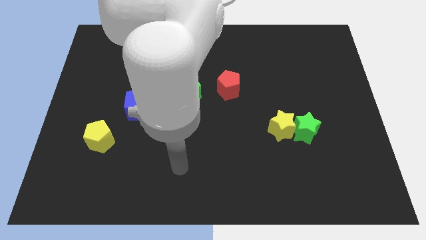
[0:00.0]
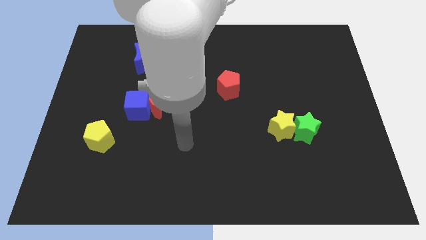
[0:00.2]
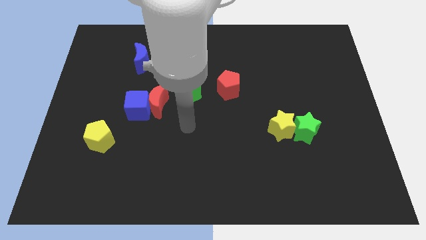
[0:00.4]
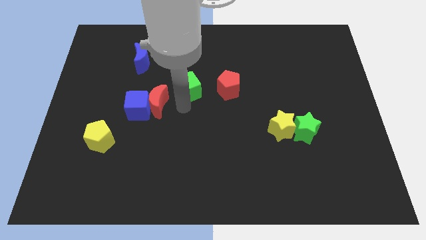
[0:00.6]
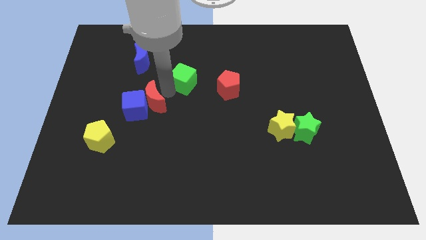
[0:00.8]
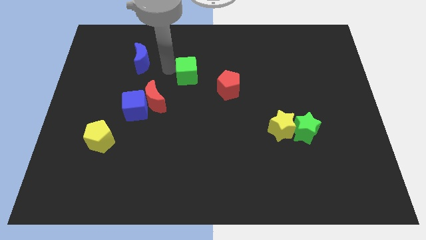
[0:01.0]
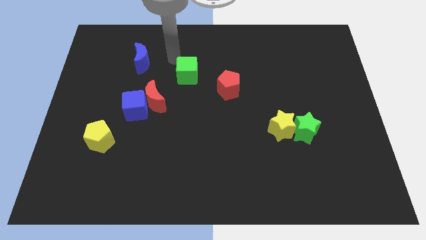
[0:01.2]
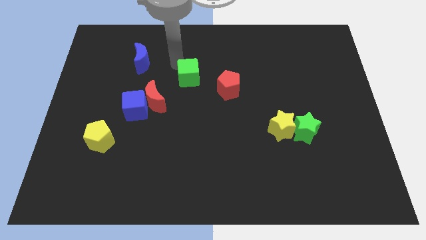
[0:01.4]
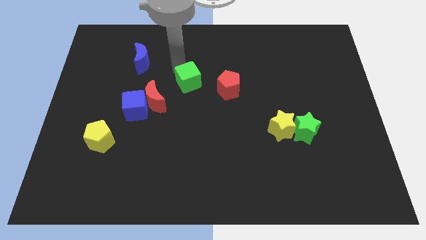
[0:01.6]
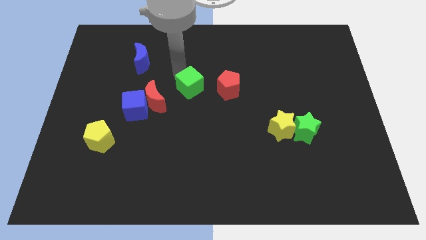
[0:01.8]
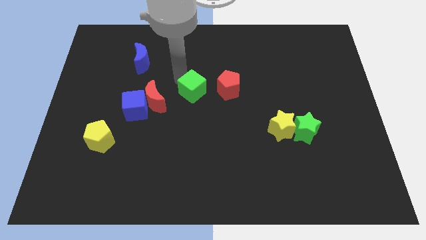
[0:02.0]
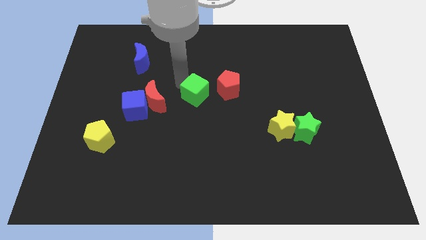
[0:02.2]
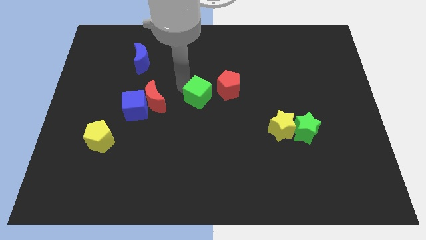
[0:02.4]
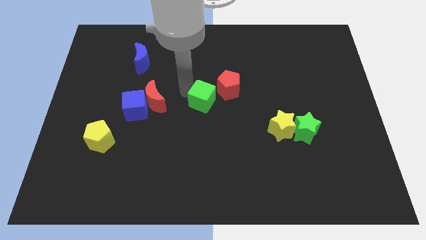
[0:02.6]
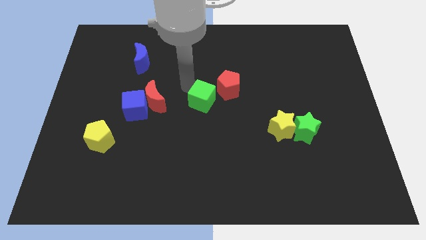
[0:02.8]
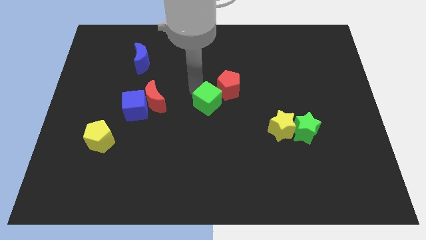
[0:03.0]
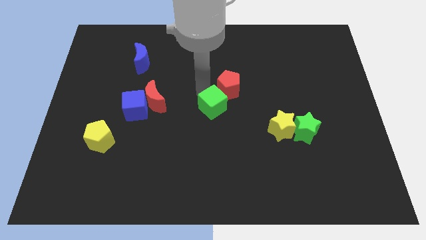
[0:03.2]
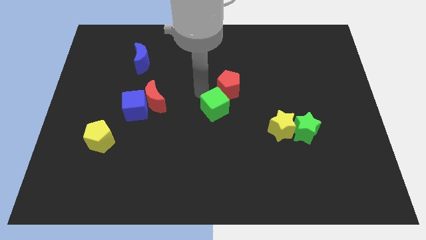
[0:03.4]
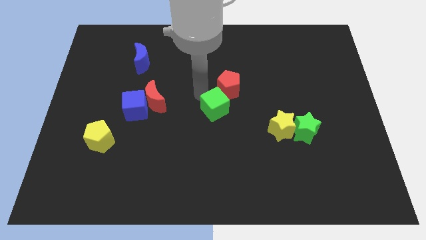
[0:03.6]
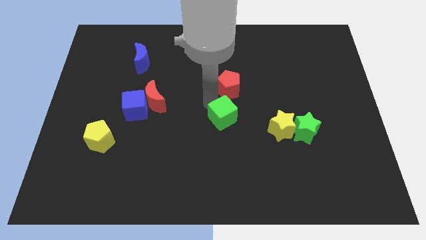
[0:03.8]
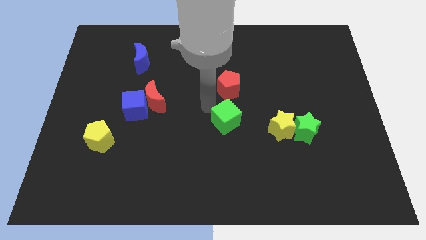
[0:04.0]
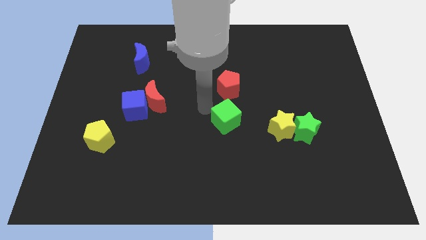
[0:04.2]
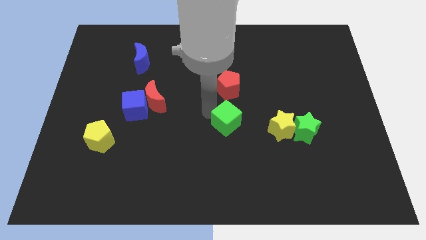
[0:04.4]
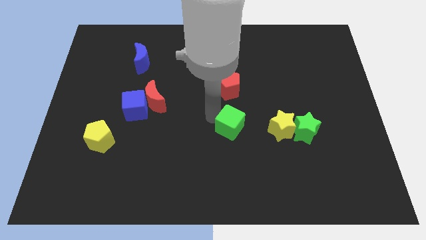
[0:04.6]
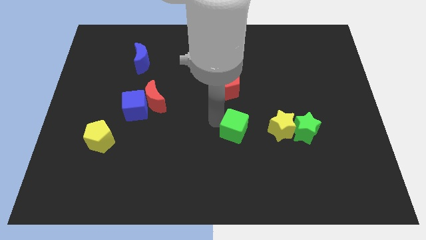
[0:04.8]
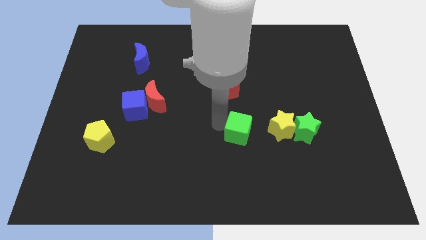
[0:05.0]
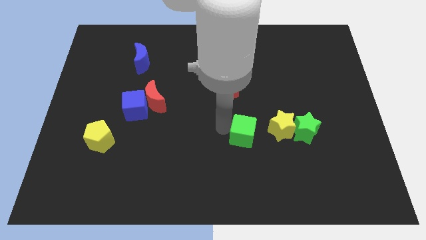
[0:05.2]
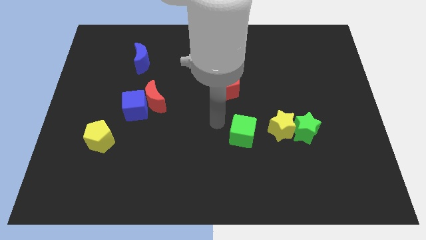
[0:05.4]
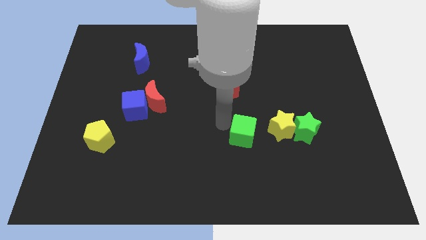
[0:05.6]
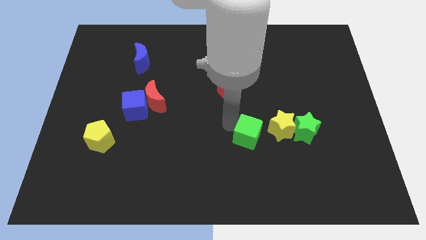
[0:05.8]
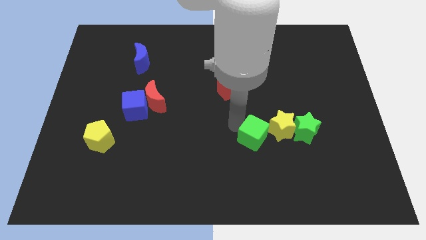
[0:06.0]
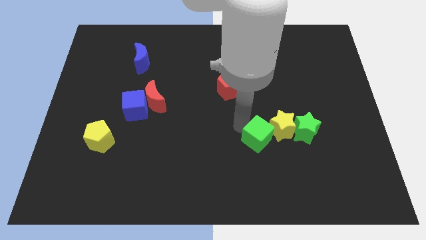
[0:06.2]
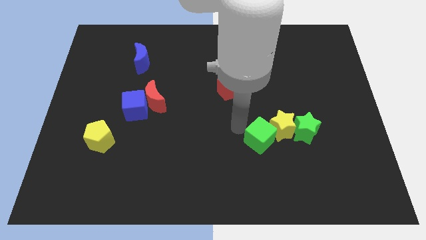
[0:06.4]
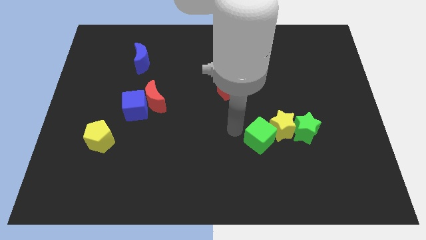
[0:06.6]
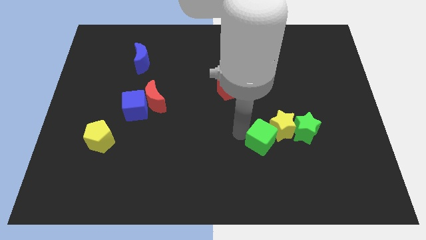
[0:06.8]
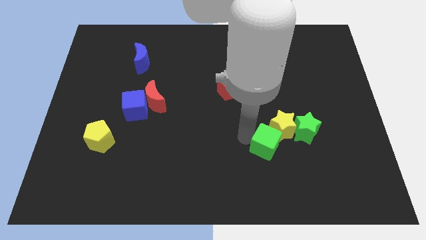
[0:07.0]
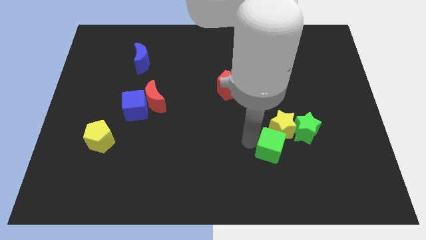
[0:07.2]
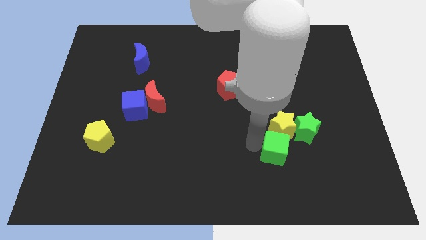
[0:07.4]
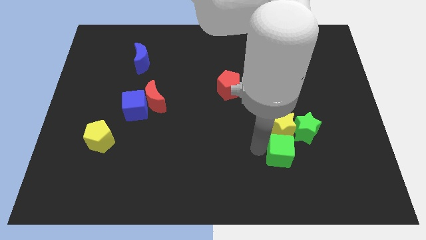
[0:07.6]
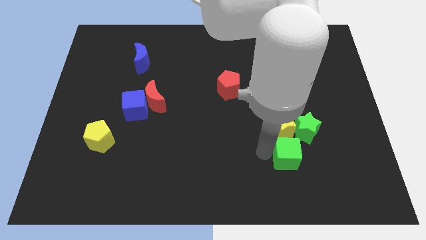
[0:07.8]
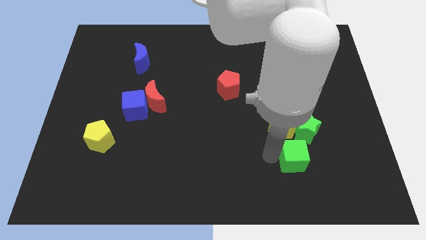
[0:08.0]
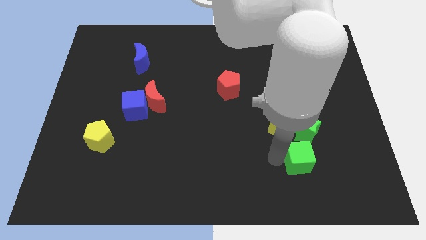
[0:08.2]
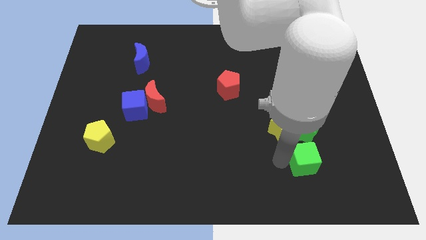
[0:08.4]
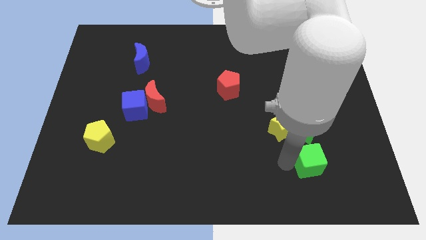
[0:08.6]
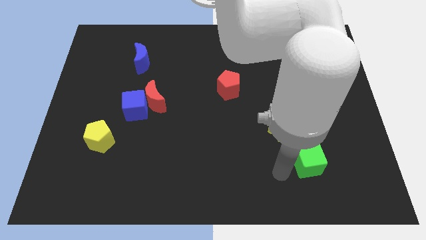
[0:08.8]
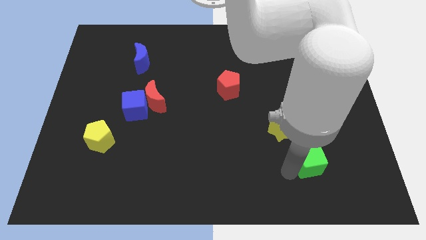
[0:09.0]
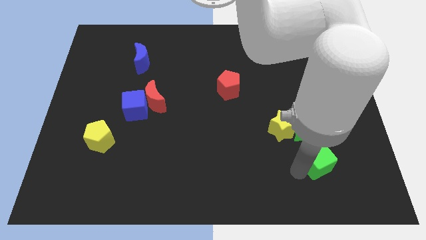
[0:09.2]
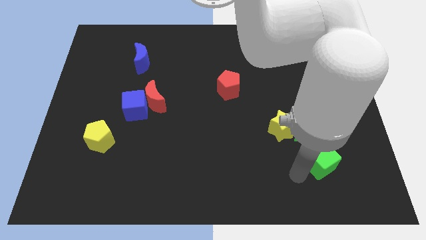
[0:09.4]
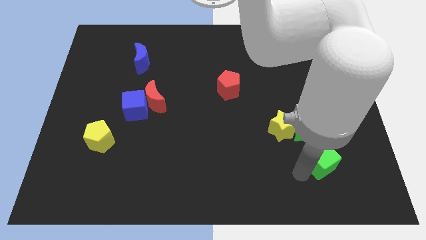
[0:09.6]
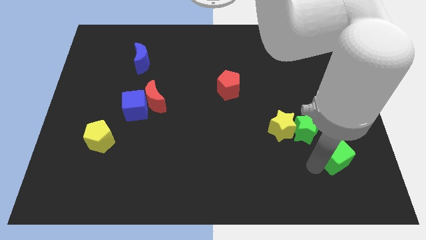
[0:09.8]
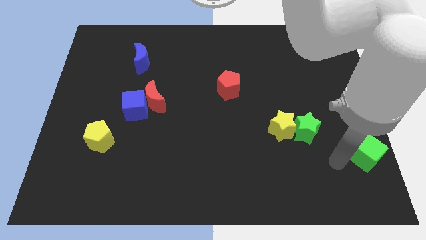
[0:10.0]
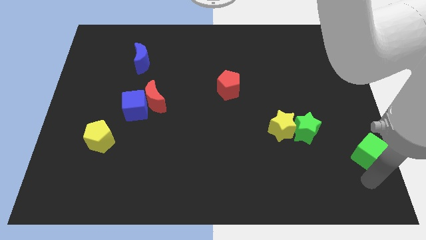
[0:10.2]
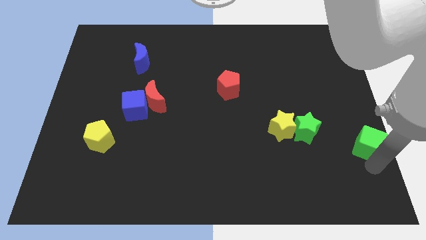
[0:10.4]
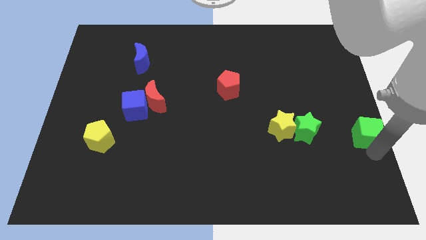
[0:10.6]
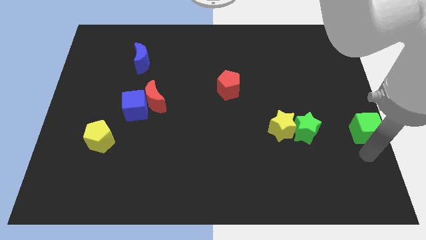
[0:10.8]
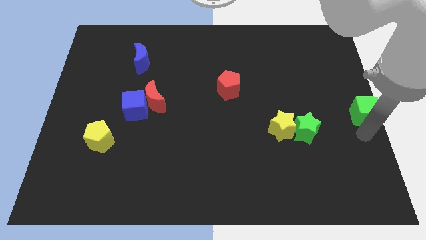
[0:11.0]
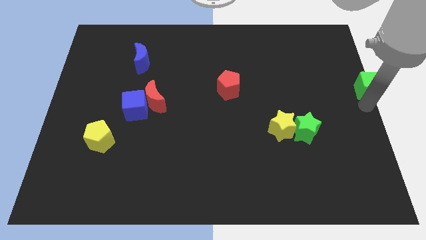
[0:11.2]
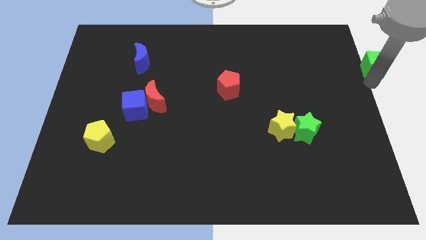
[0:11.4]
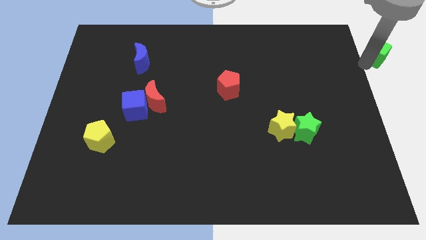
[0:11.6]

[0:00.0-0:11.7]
put the green cube to the upper right corner
